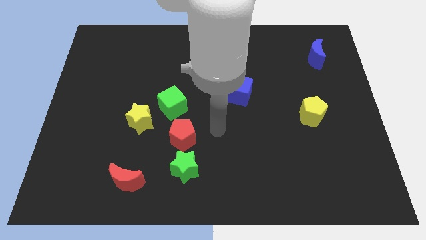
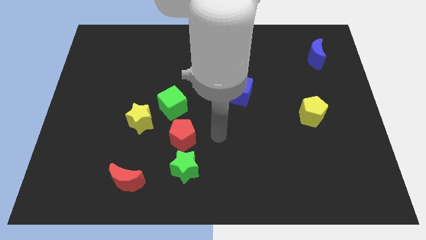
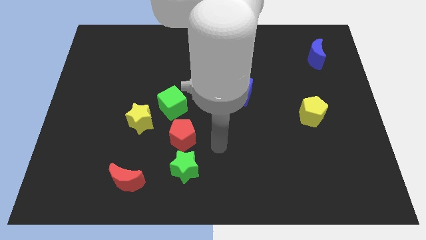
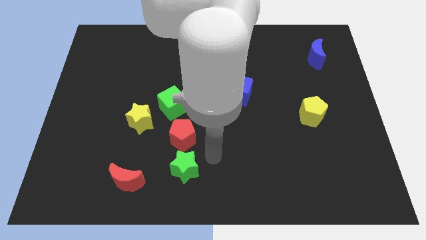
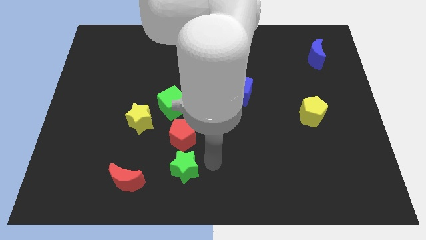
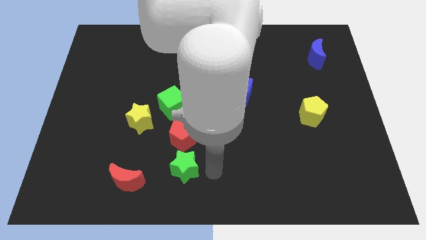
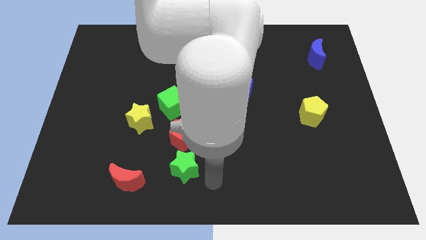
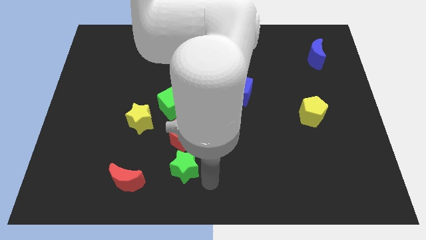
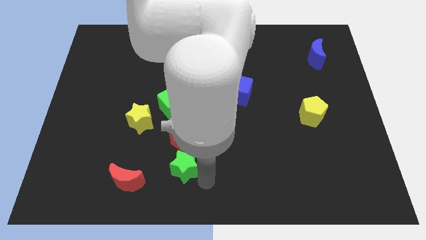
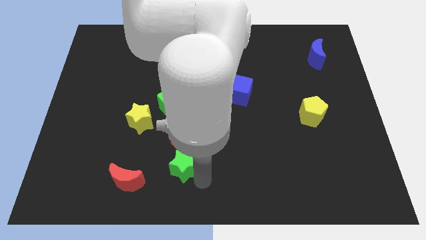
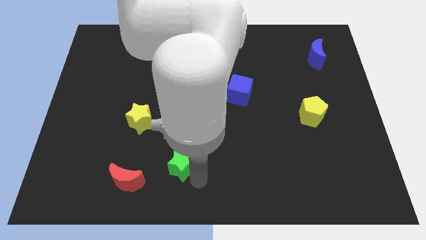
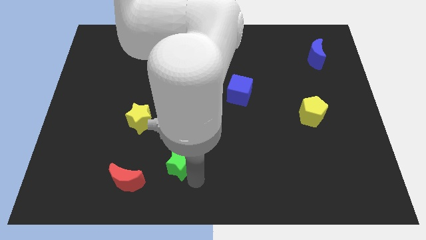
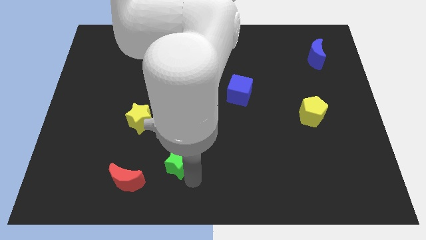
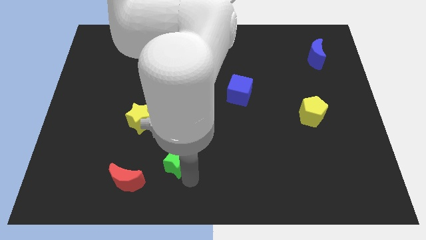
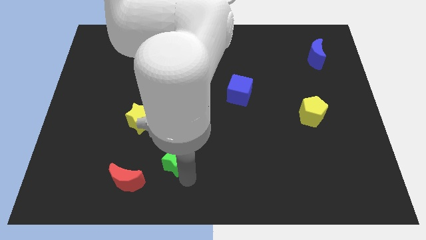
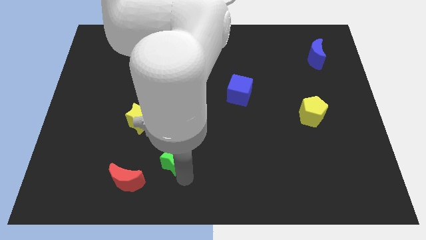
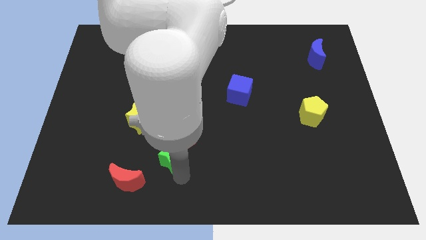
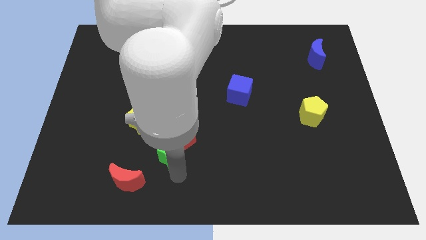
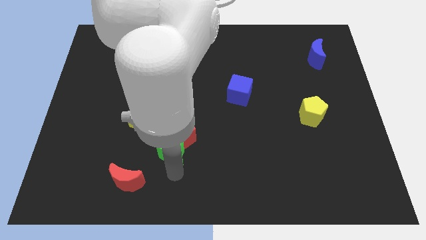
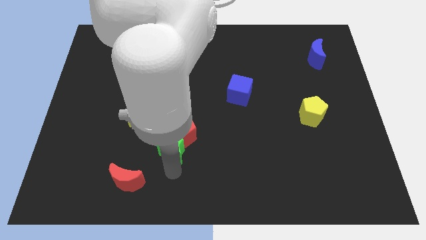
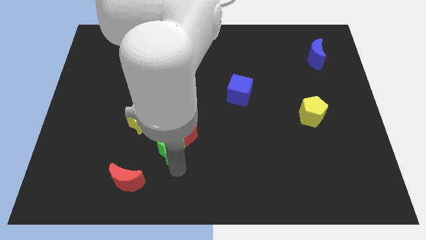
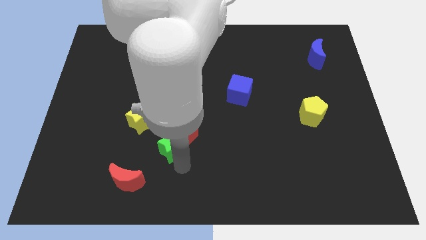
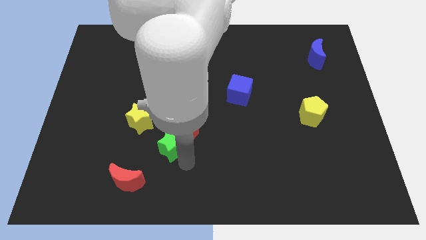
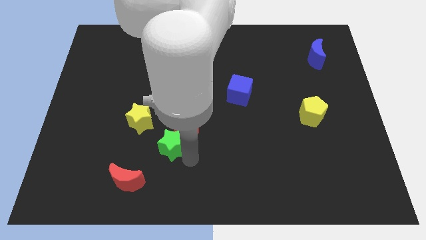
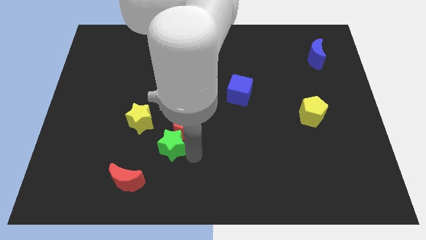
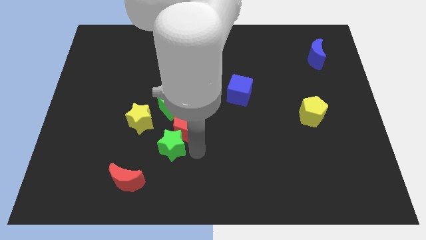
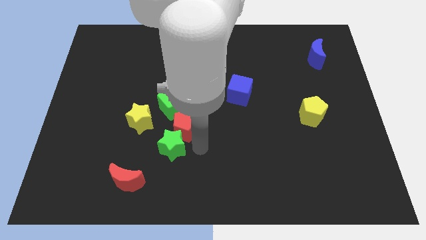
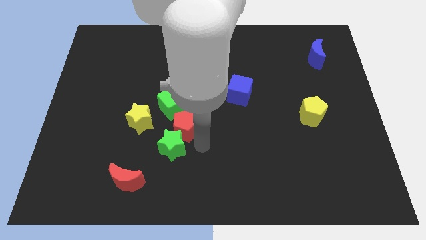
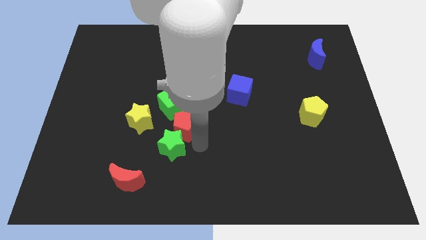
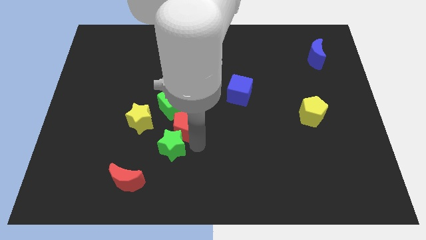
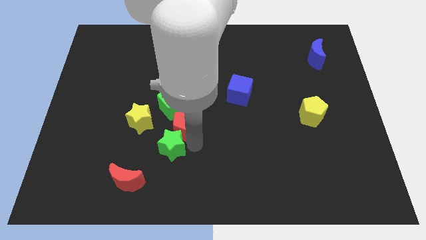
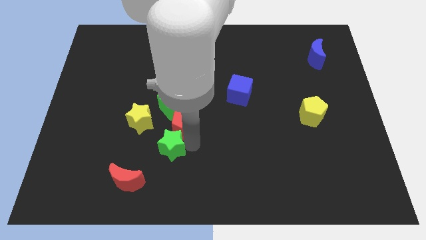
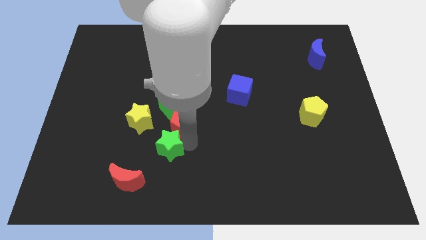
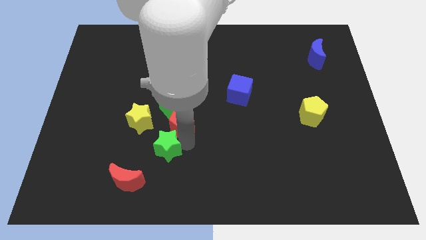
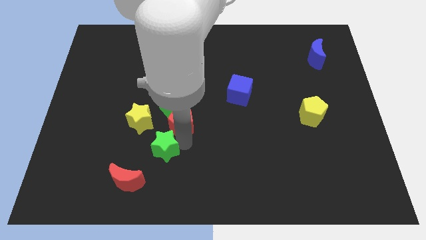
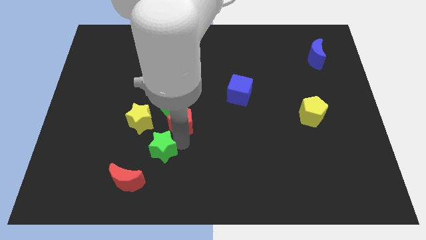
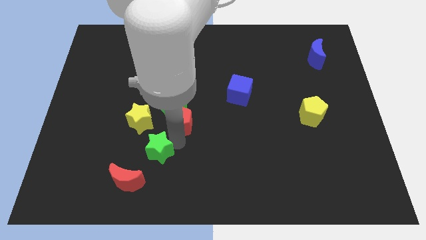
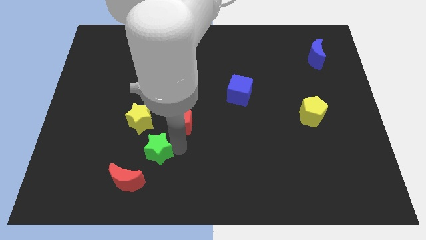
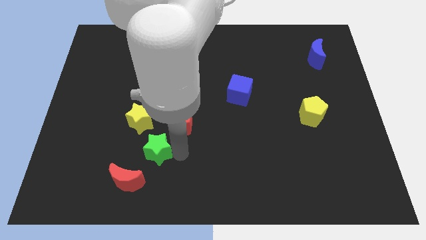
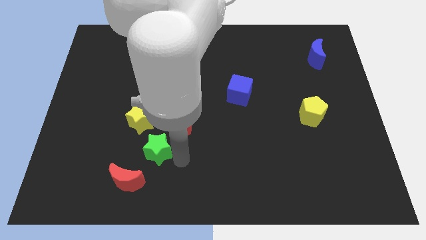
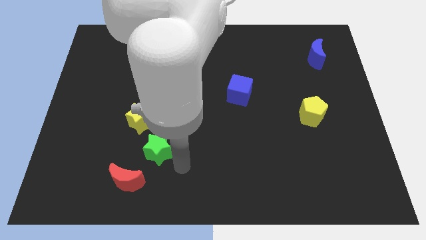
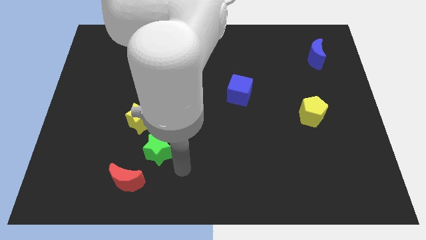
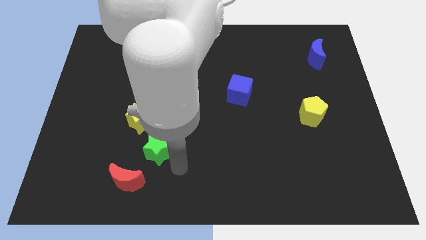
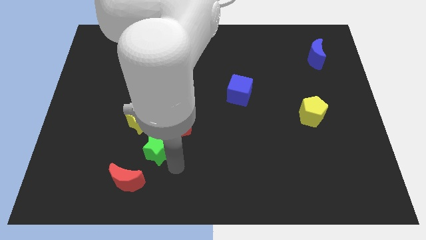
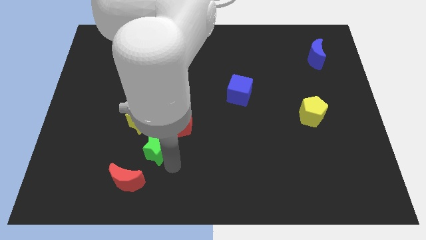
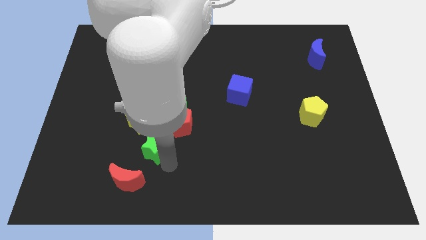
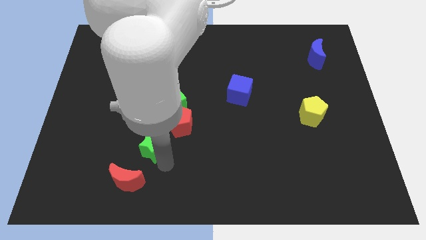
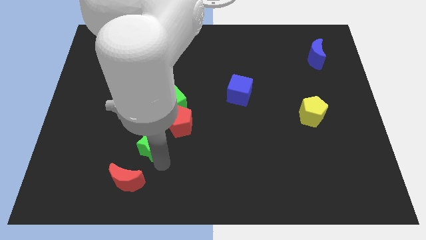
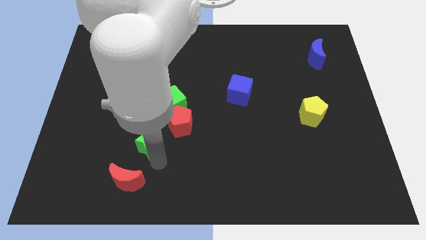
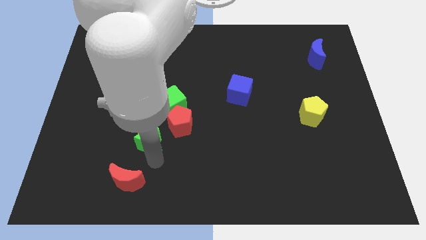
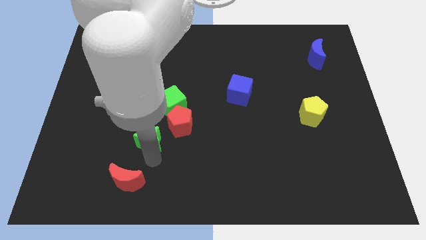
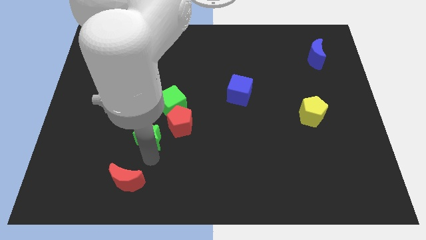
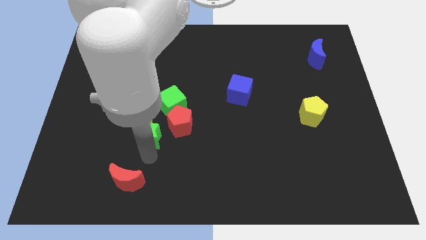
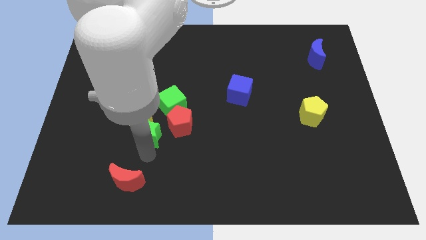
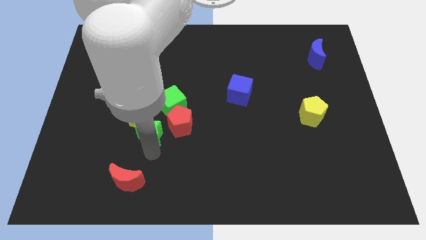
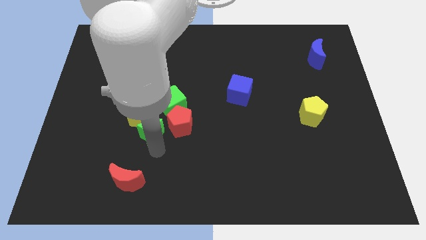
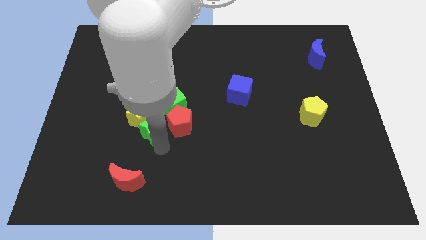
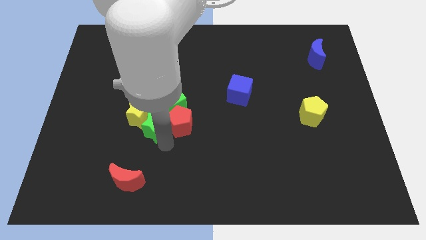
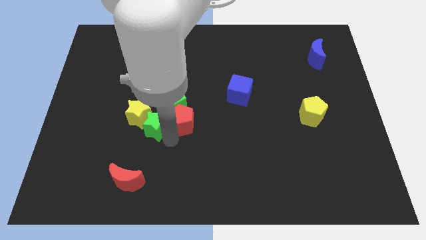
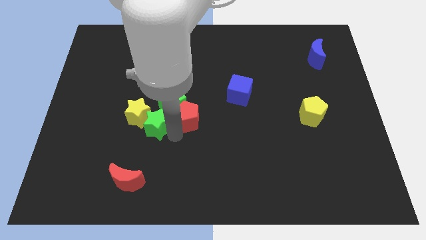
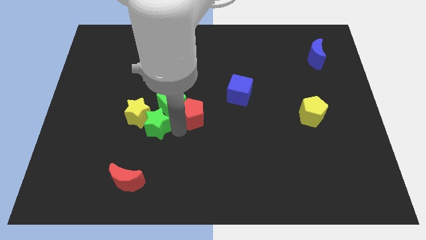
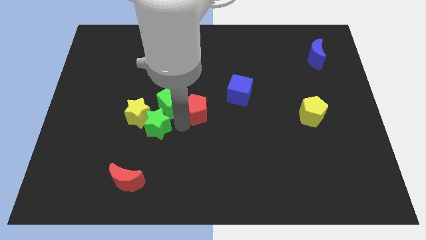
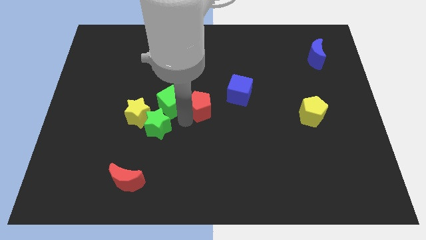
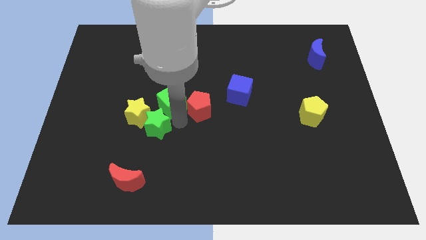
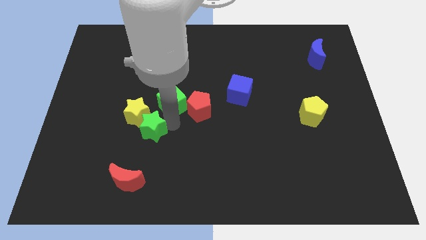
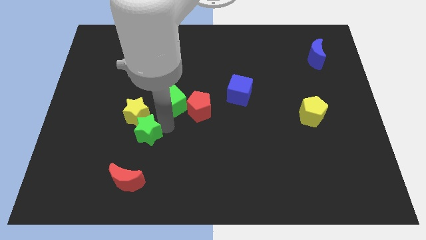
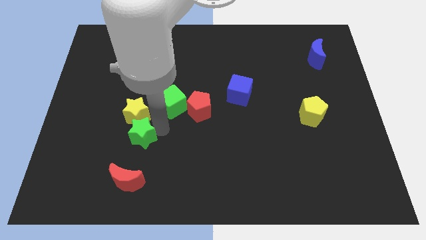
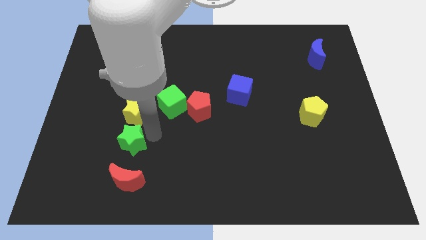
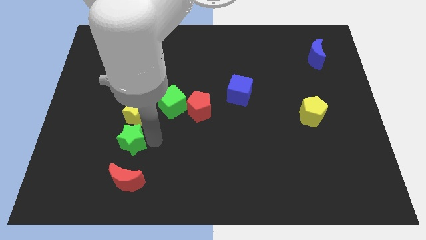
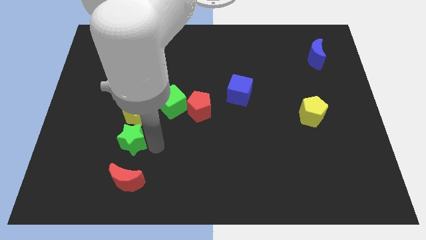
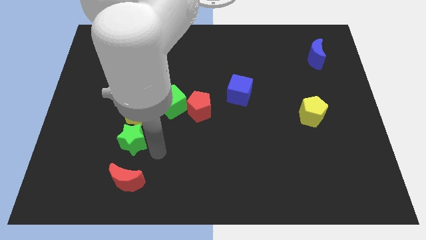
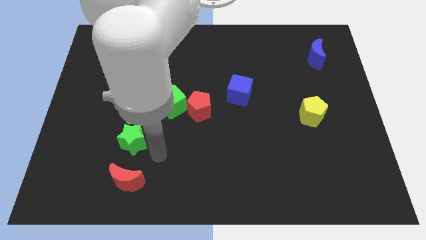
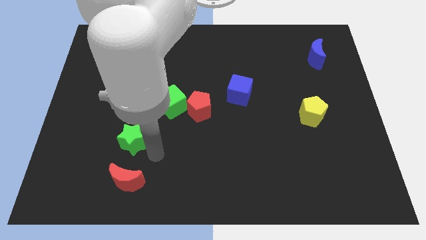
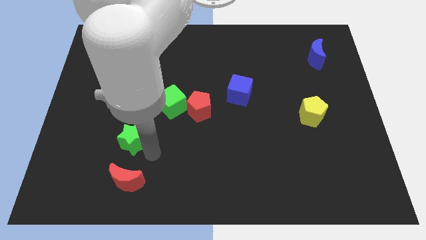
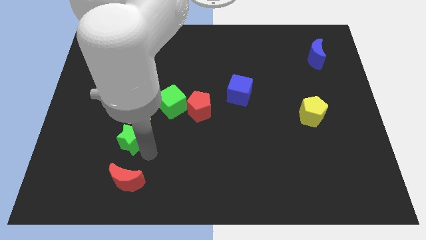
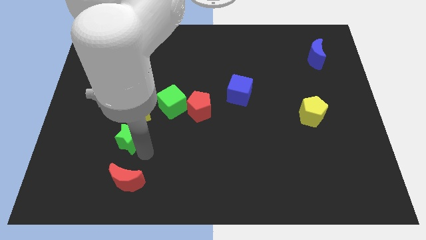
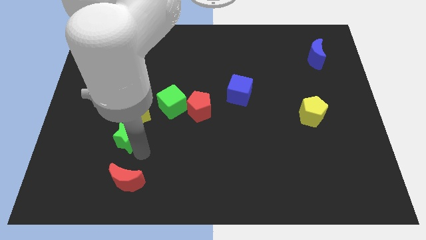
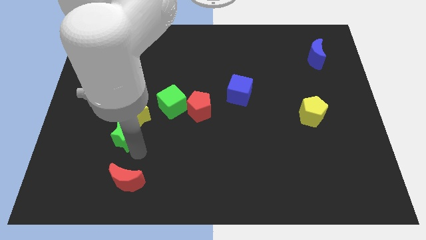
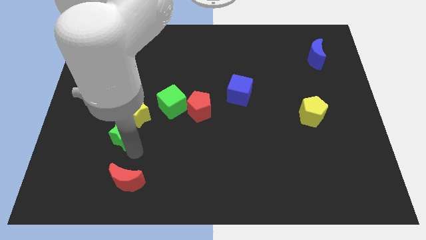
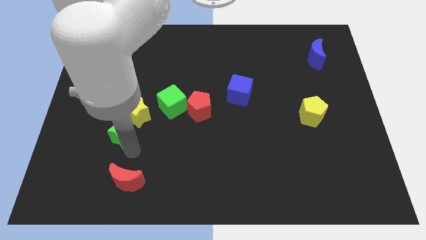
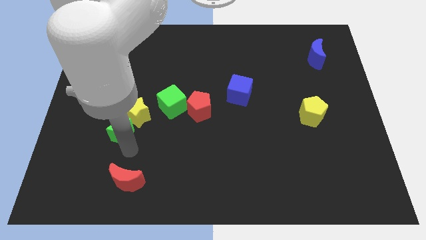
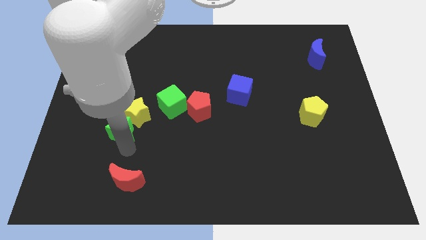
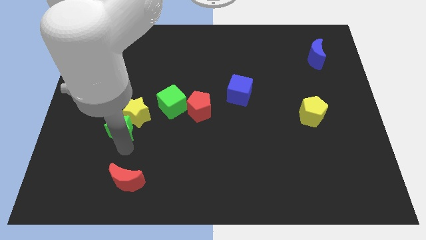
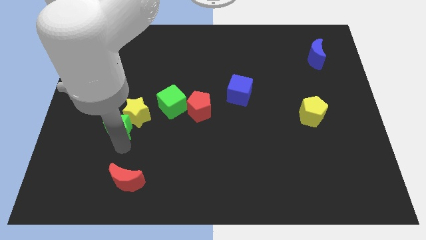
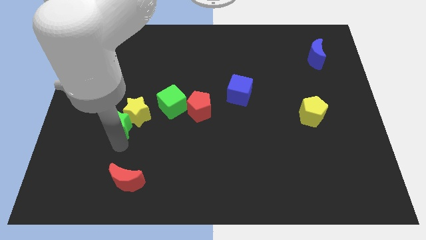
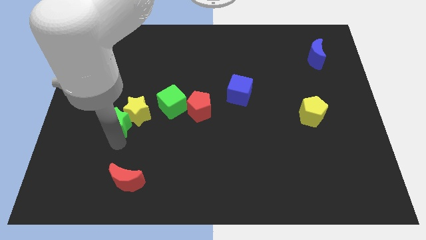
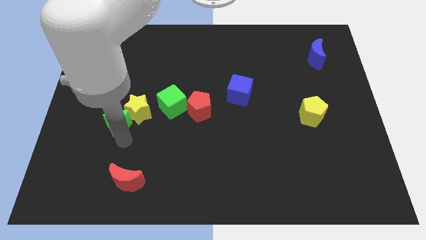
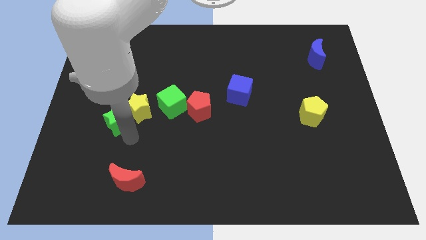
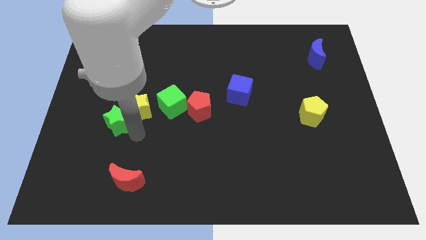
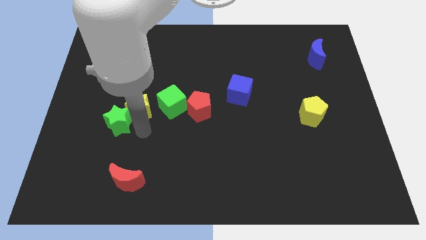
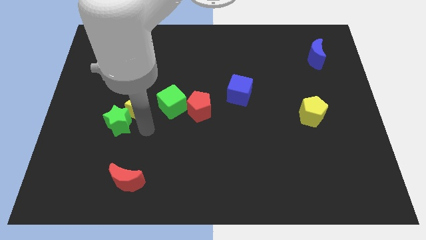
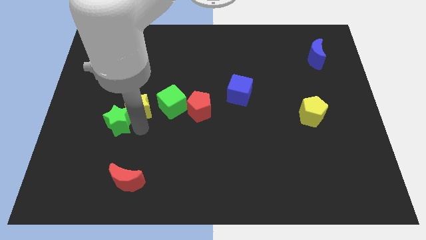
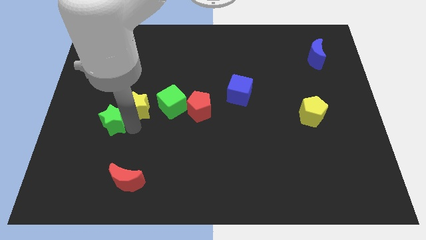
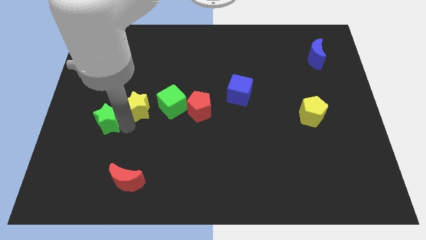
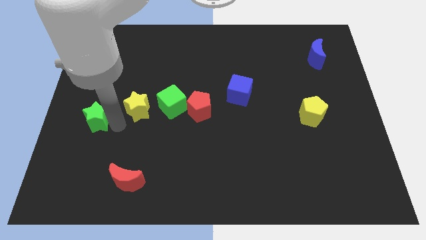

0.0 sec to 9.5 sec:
move the green star to the center left
